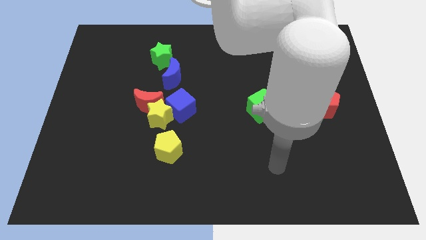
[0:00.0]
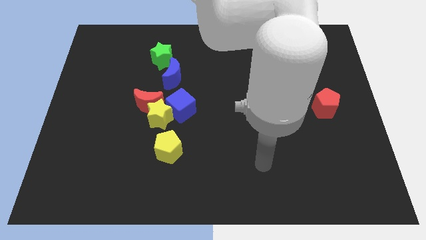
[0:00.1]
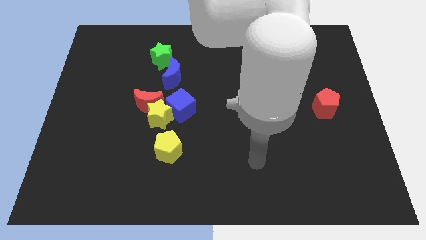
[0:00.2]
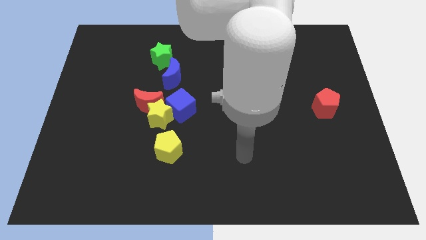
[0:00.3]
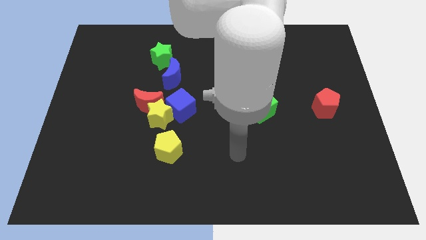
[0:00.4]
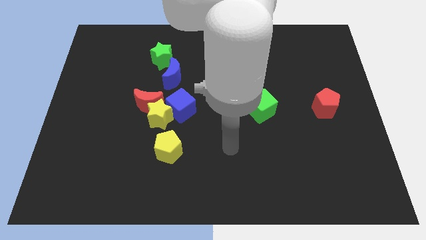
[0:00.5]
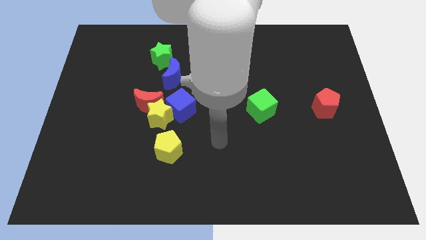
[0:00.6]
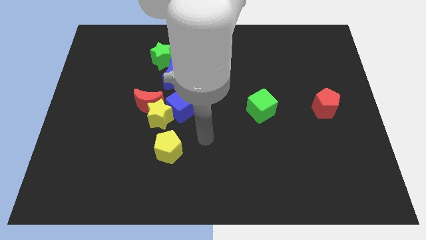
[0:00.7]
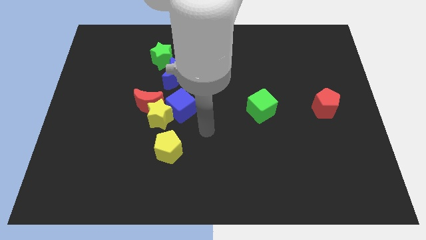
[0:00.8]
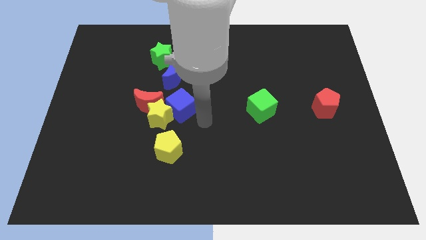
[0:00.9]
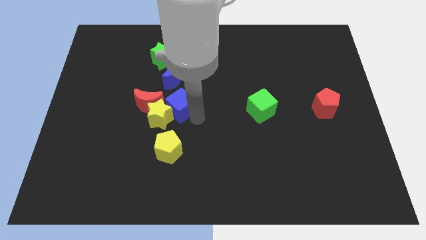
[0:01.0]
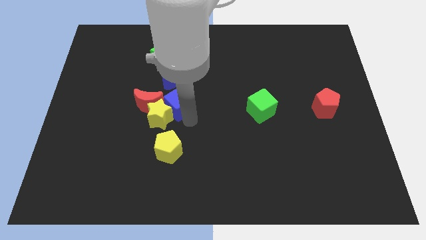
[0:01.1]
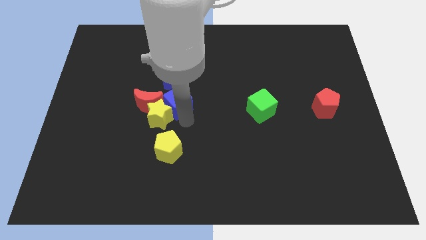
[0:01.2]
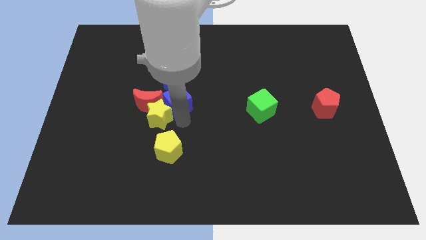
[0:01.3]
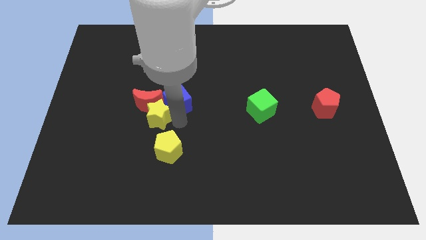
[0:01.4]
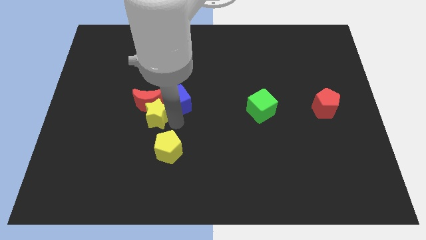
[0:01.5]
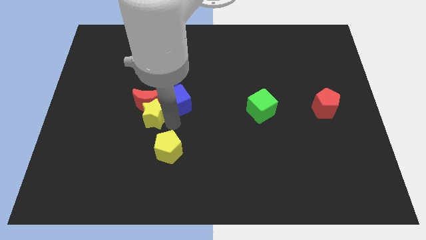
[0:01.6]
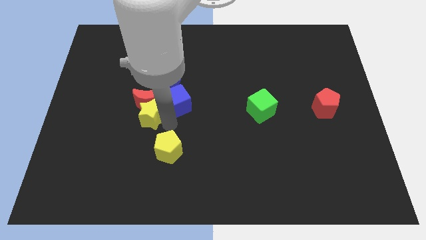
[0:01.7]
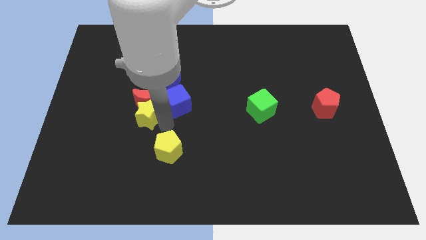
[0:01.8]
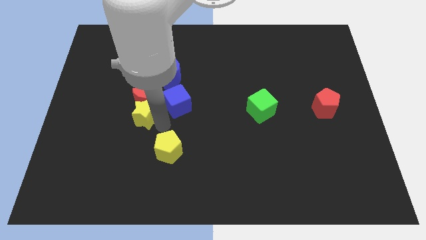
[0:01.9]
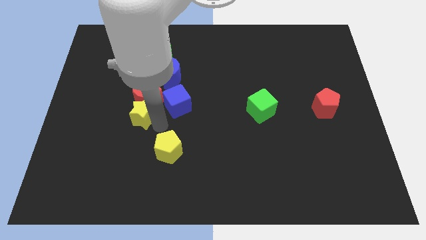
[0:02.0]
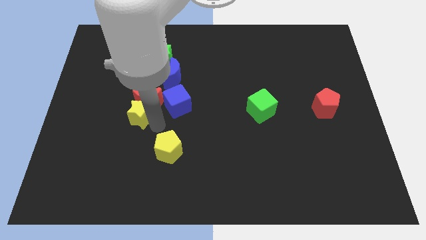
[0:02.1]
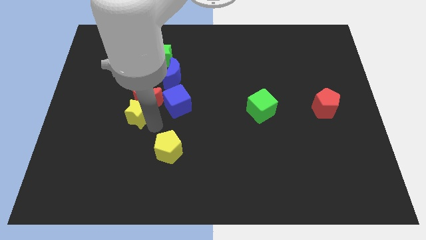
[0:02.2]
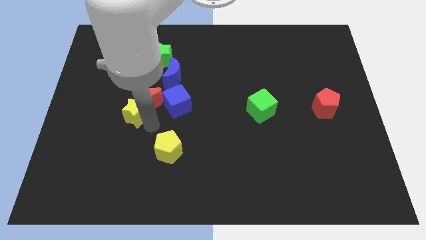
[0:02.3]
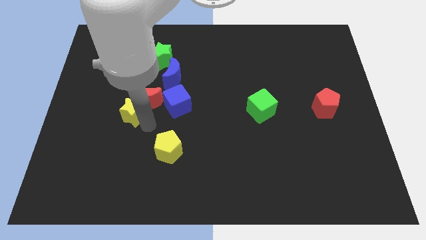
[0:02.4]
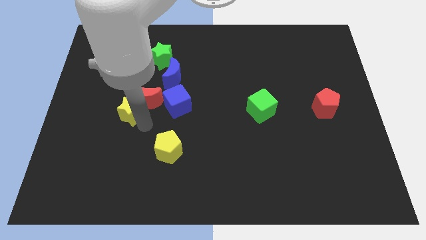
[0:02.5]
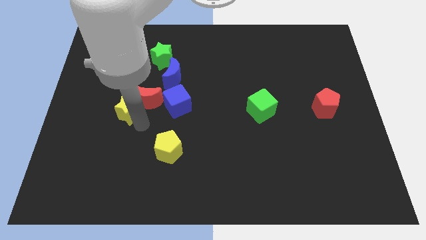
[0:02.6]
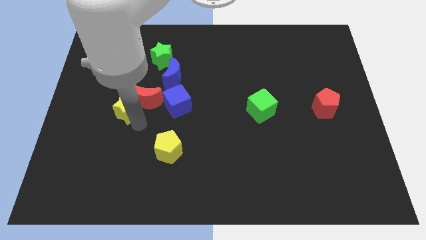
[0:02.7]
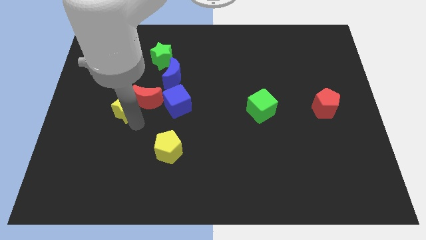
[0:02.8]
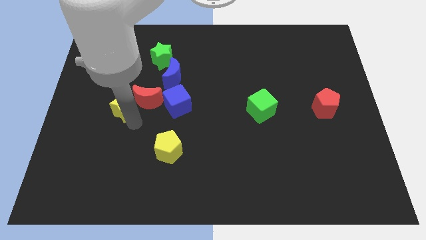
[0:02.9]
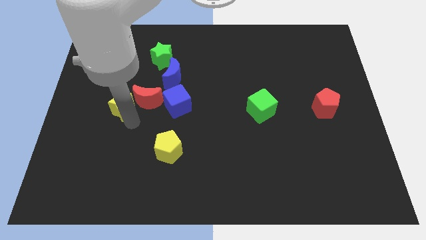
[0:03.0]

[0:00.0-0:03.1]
pull the yellow star apart from the group

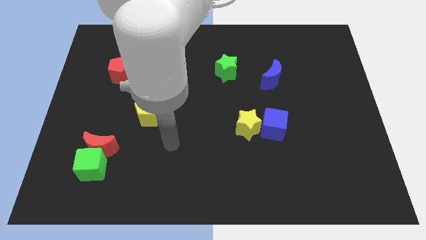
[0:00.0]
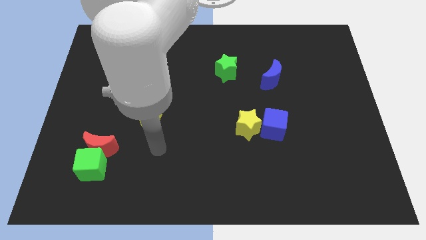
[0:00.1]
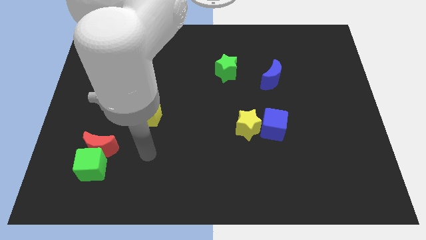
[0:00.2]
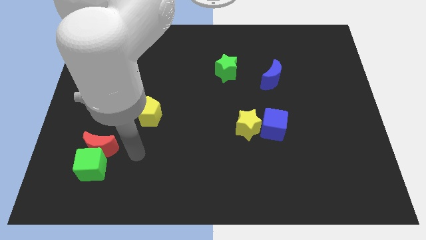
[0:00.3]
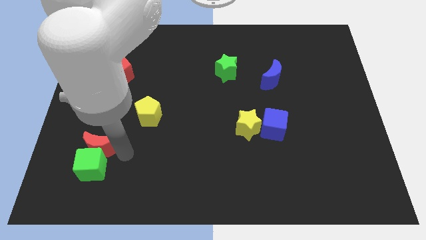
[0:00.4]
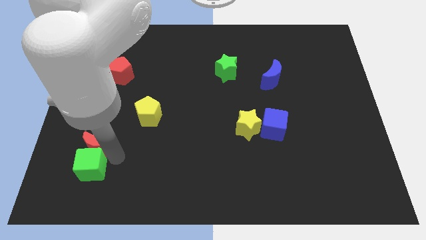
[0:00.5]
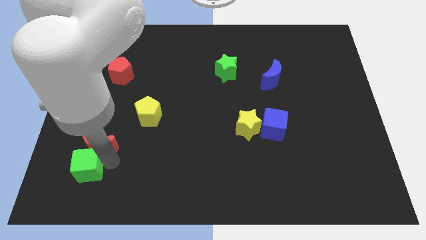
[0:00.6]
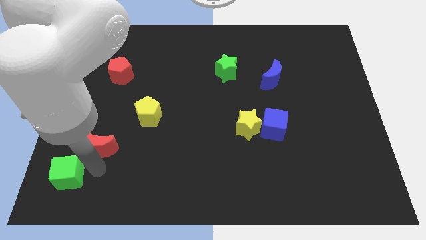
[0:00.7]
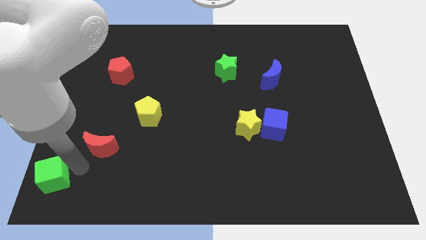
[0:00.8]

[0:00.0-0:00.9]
separate the red moon from the green cube

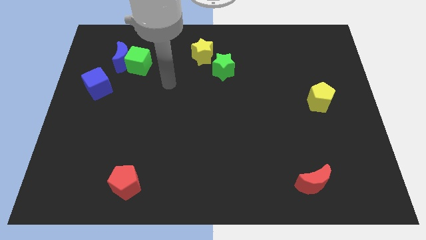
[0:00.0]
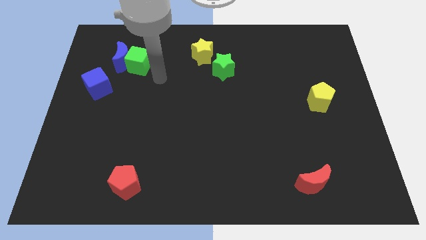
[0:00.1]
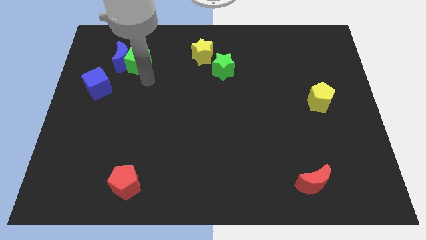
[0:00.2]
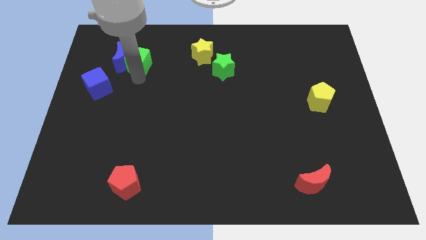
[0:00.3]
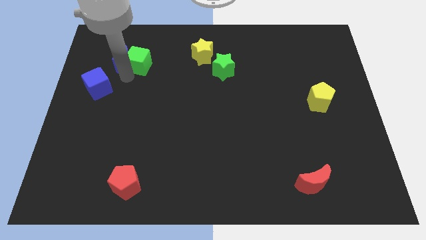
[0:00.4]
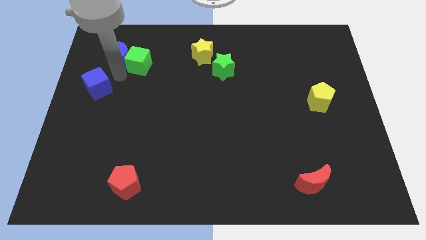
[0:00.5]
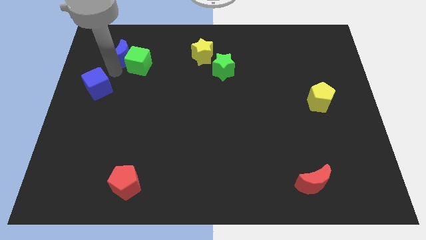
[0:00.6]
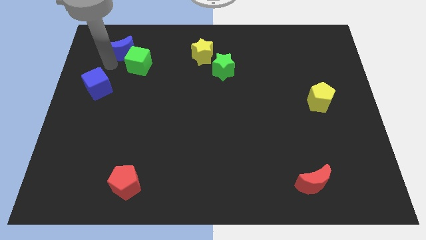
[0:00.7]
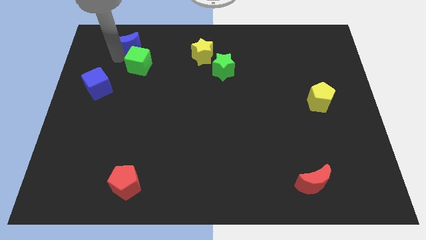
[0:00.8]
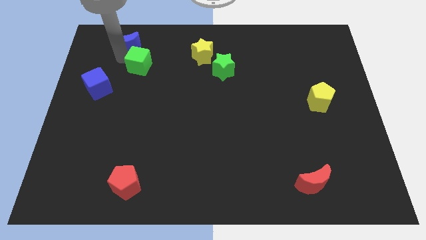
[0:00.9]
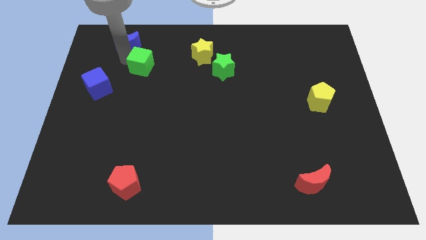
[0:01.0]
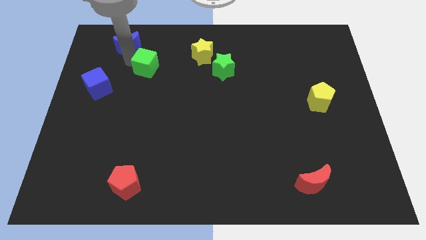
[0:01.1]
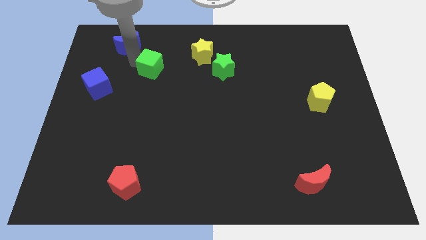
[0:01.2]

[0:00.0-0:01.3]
separate the green cube from the blue moon

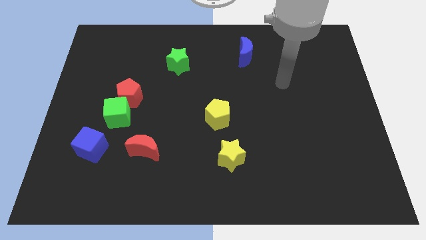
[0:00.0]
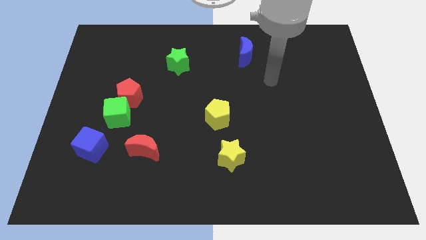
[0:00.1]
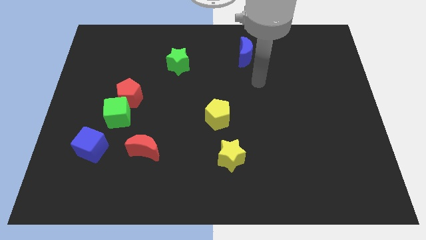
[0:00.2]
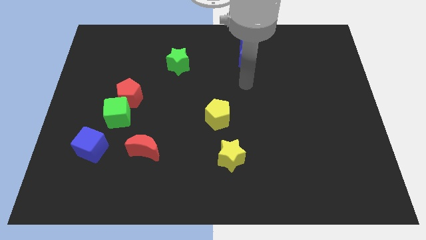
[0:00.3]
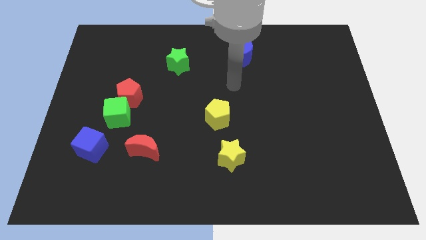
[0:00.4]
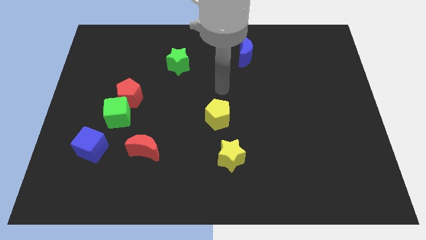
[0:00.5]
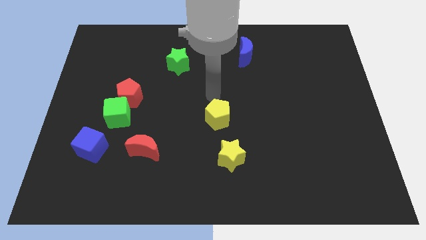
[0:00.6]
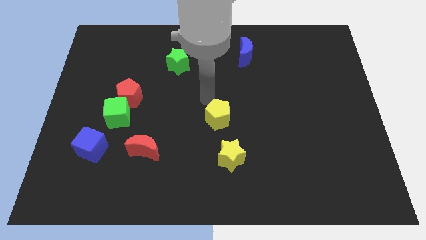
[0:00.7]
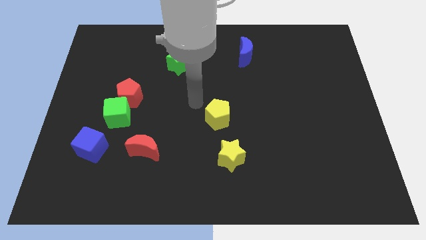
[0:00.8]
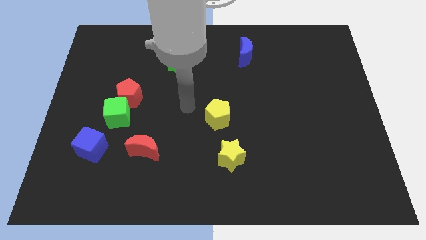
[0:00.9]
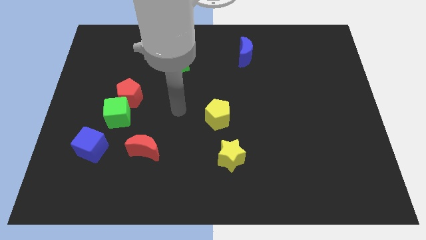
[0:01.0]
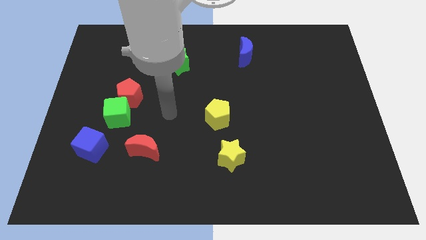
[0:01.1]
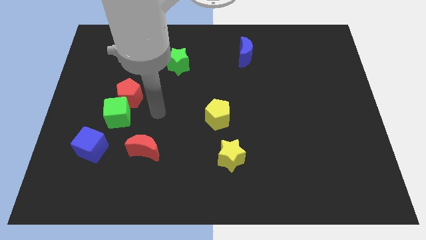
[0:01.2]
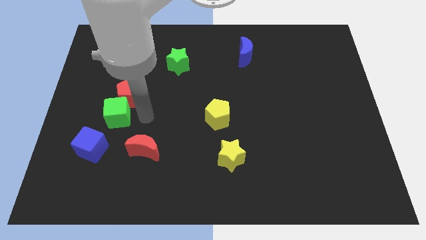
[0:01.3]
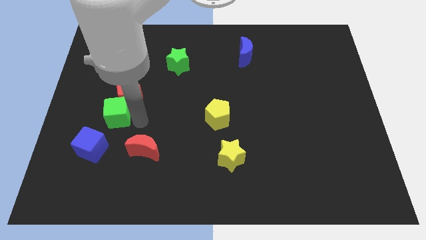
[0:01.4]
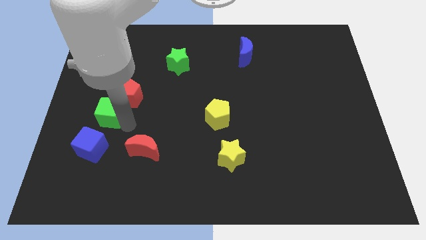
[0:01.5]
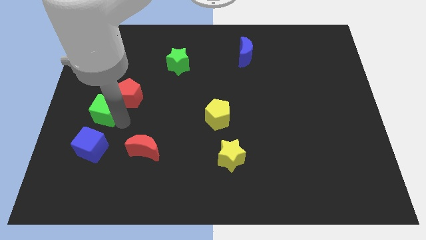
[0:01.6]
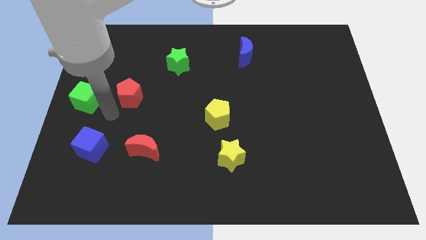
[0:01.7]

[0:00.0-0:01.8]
separate the red pentagon from the green cube

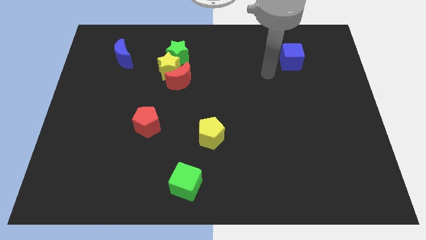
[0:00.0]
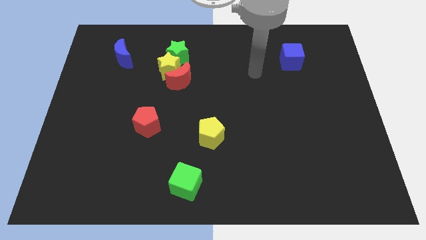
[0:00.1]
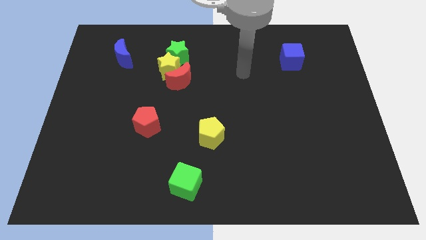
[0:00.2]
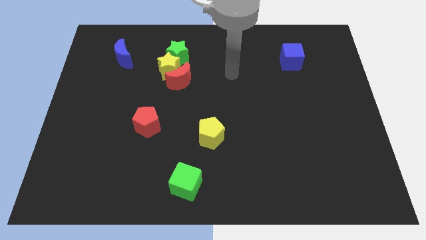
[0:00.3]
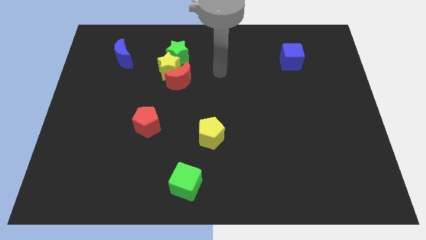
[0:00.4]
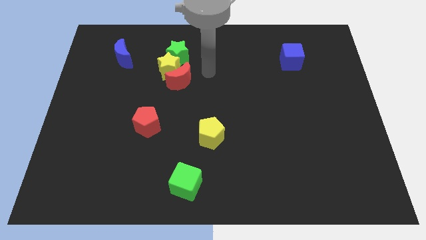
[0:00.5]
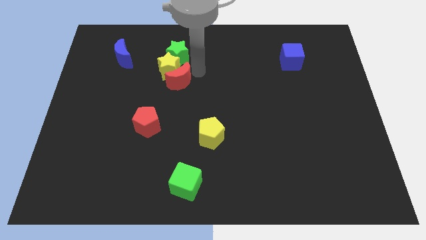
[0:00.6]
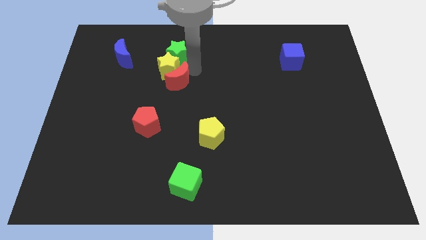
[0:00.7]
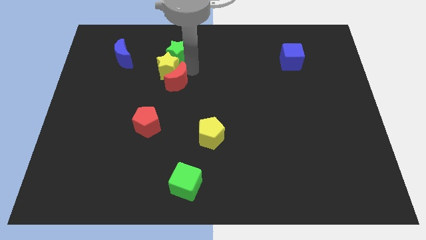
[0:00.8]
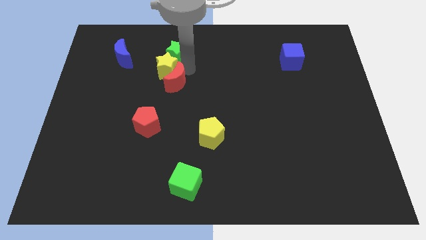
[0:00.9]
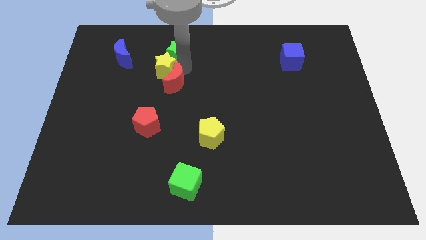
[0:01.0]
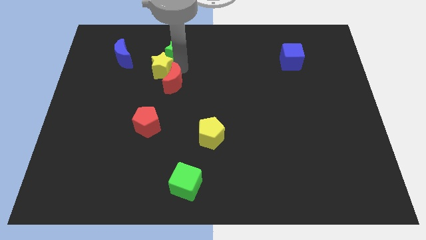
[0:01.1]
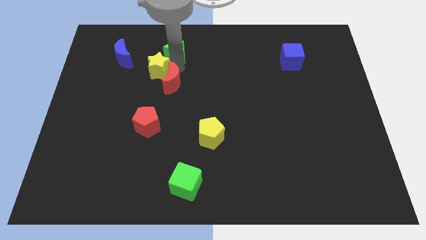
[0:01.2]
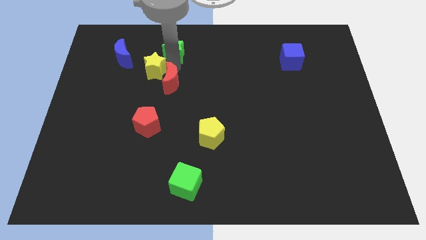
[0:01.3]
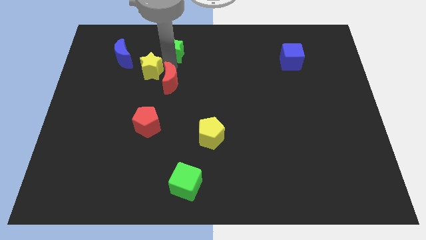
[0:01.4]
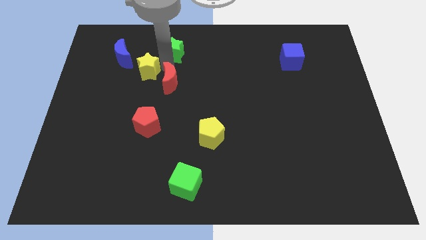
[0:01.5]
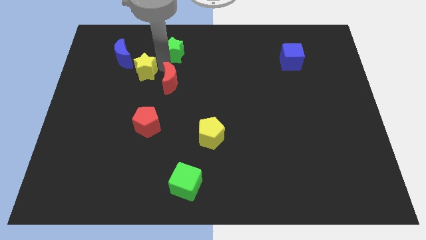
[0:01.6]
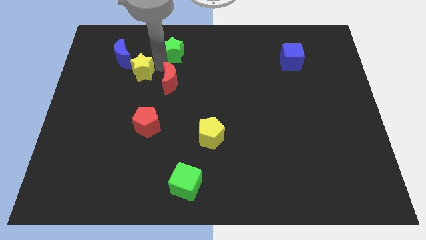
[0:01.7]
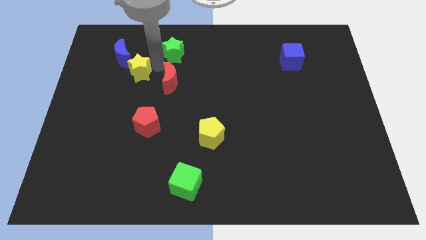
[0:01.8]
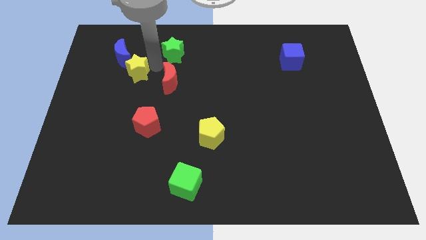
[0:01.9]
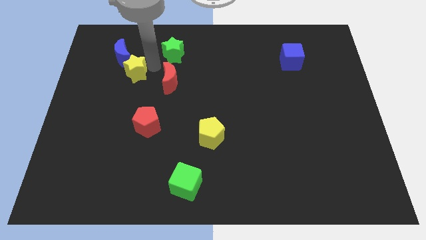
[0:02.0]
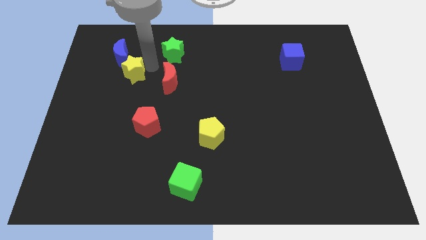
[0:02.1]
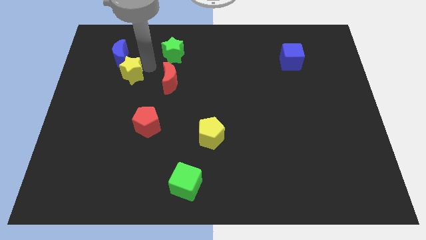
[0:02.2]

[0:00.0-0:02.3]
pull the yellow star apart from the green star and red moon
